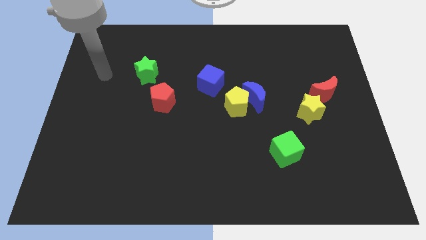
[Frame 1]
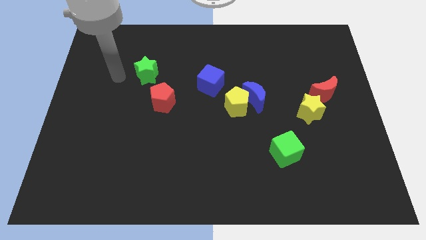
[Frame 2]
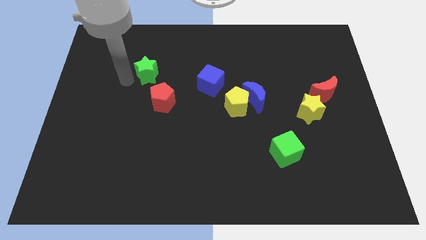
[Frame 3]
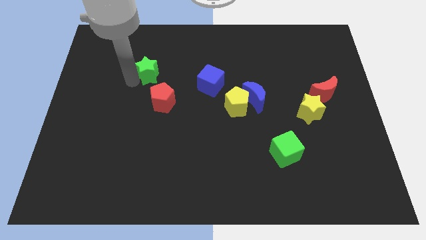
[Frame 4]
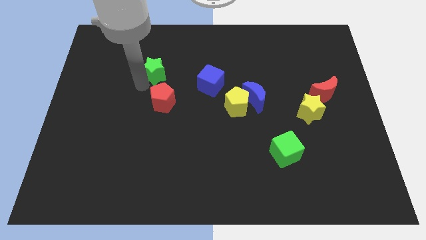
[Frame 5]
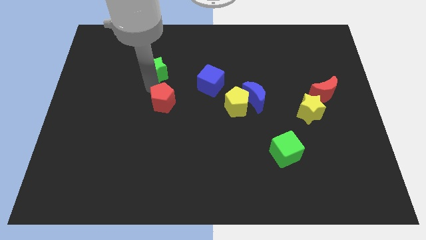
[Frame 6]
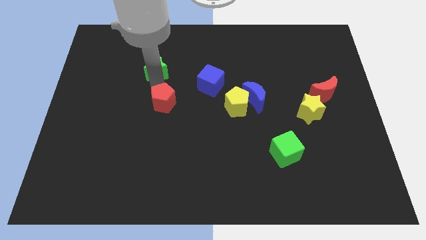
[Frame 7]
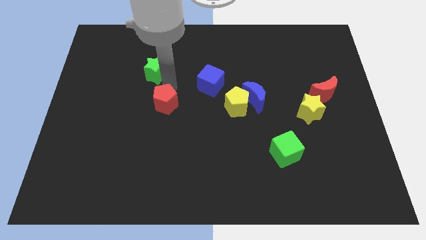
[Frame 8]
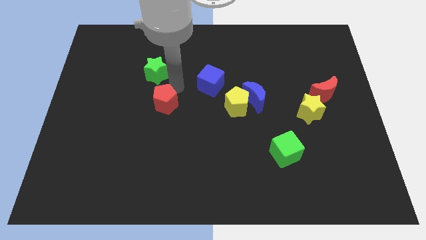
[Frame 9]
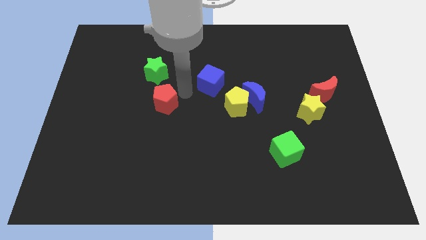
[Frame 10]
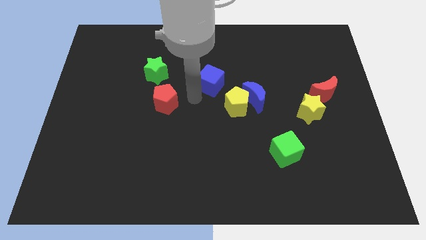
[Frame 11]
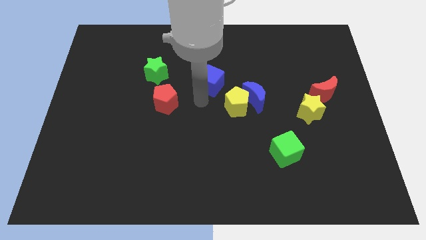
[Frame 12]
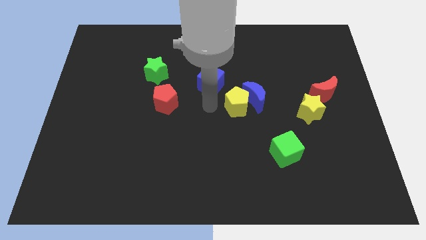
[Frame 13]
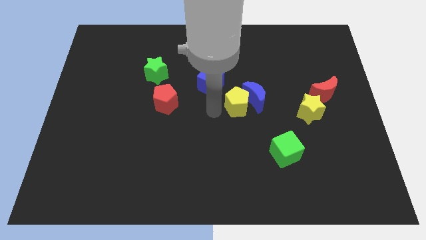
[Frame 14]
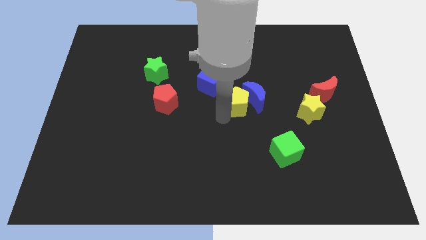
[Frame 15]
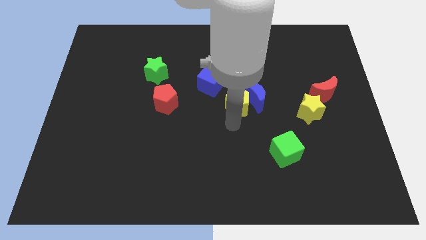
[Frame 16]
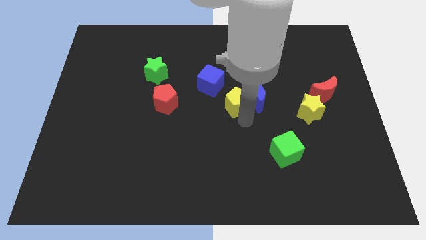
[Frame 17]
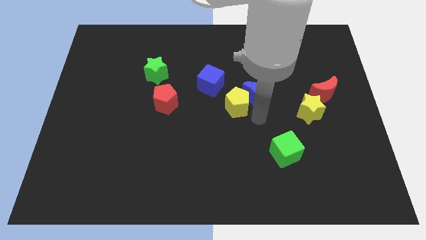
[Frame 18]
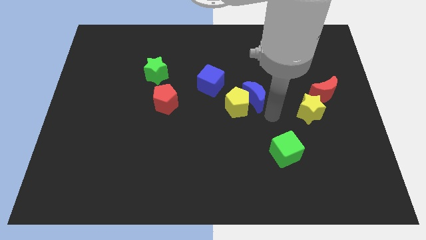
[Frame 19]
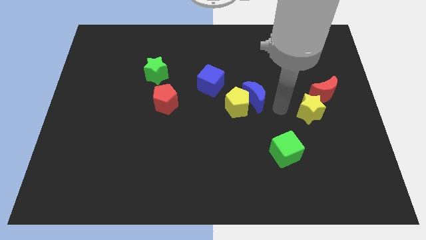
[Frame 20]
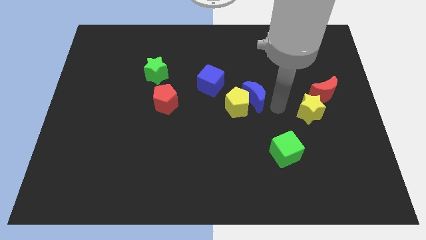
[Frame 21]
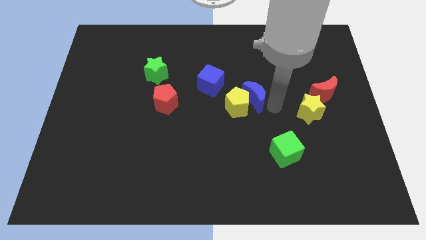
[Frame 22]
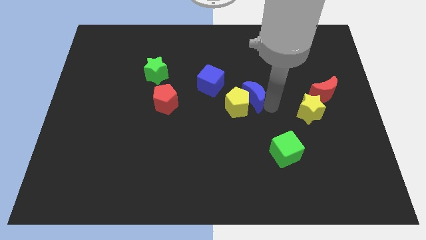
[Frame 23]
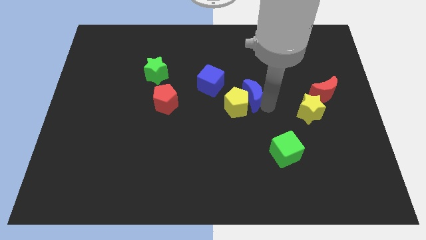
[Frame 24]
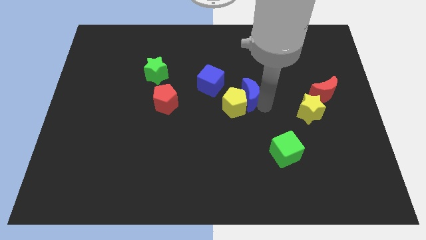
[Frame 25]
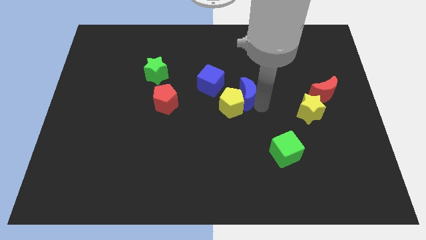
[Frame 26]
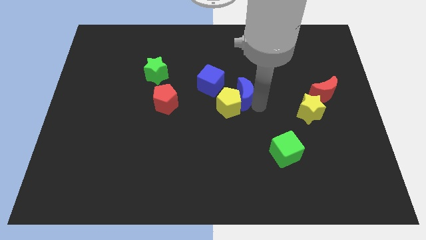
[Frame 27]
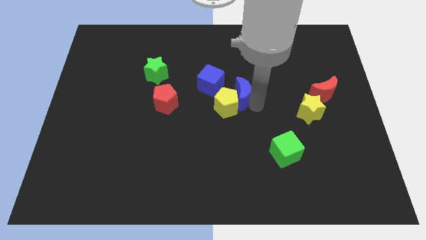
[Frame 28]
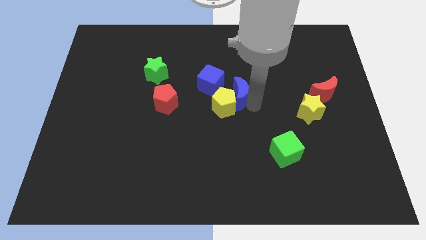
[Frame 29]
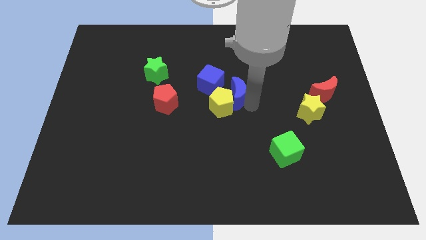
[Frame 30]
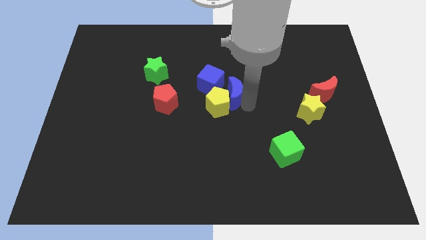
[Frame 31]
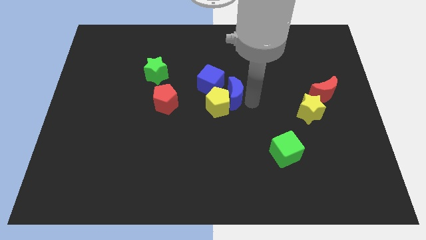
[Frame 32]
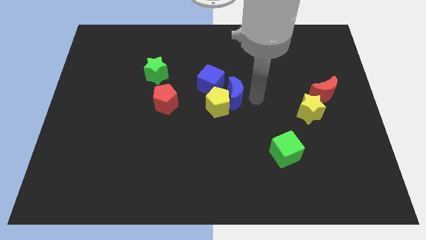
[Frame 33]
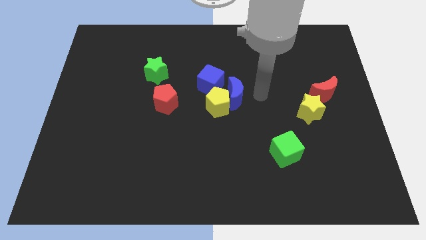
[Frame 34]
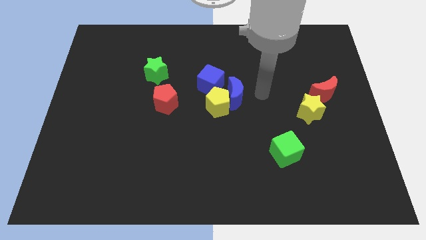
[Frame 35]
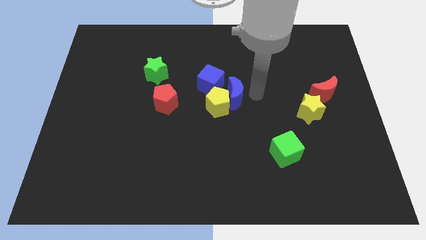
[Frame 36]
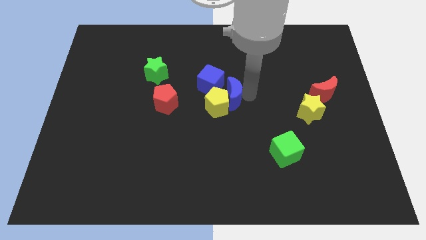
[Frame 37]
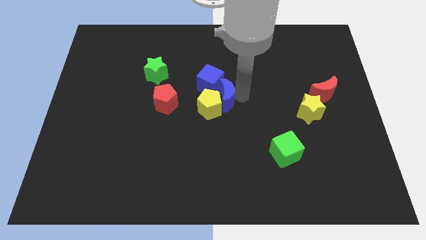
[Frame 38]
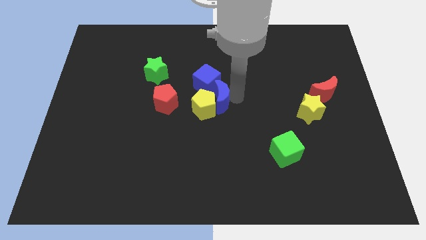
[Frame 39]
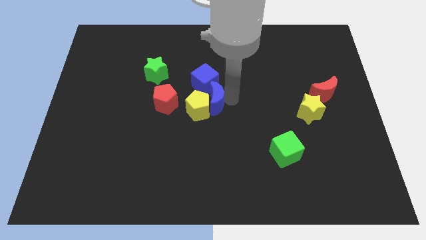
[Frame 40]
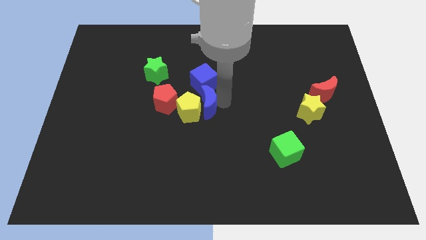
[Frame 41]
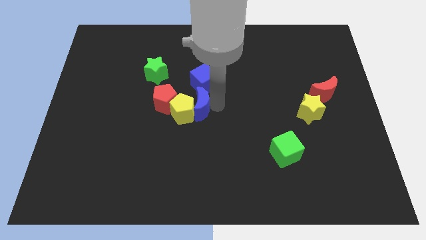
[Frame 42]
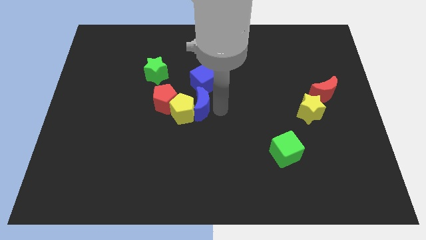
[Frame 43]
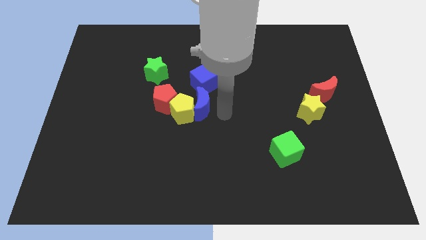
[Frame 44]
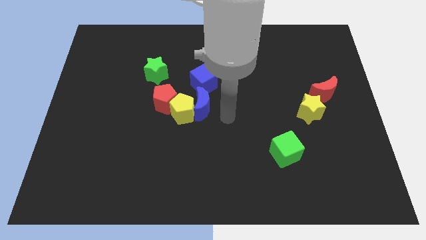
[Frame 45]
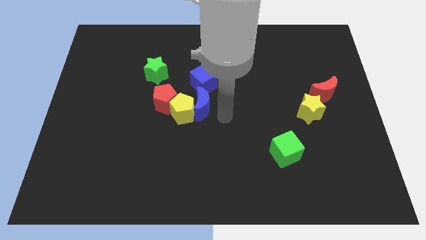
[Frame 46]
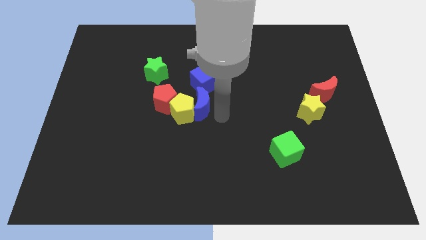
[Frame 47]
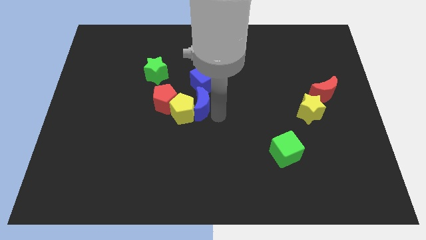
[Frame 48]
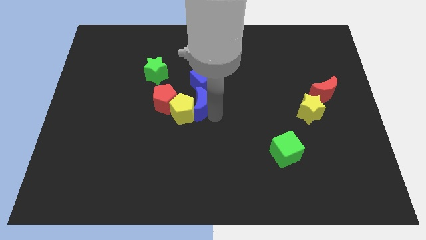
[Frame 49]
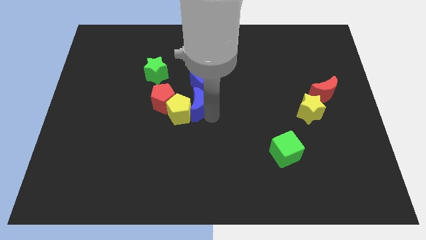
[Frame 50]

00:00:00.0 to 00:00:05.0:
move the blue moon to the bottom left of the blue cube

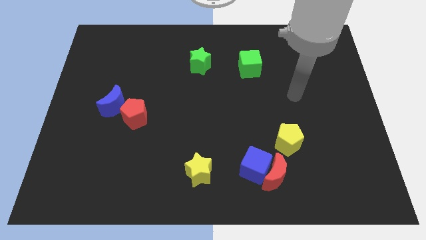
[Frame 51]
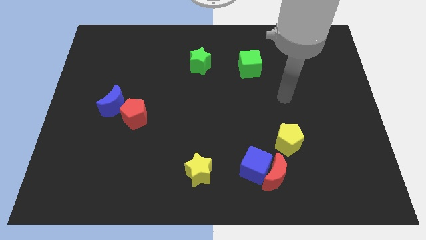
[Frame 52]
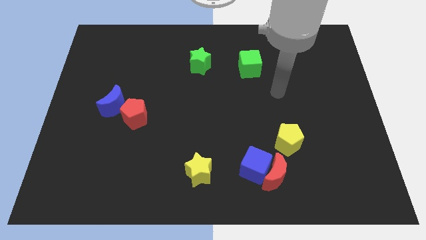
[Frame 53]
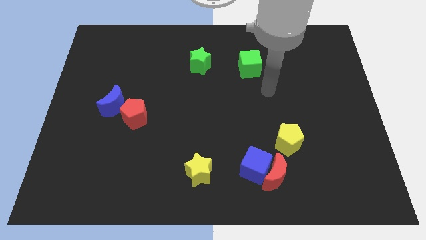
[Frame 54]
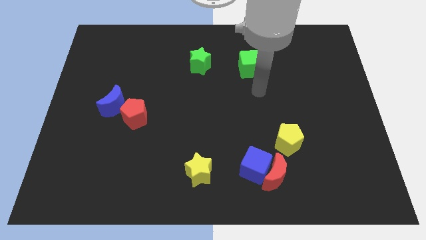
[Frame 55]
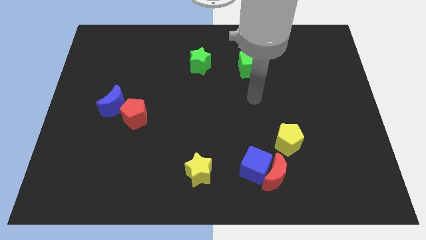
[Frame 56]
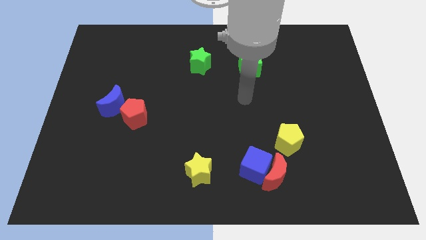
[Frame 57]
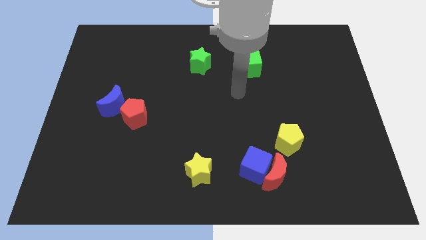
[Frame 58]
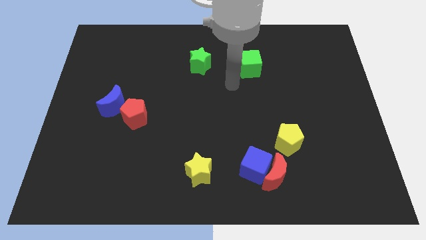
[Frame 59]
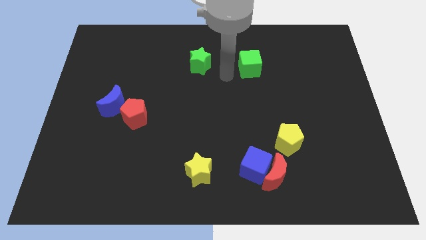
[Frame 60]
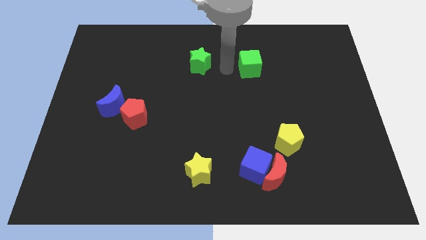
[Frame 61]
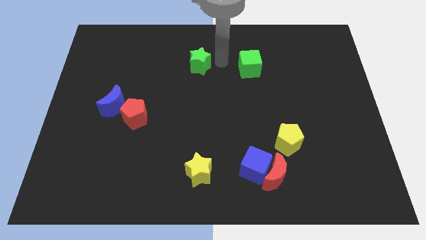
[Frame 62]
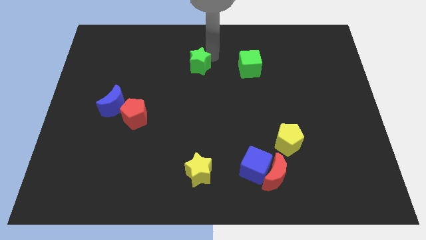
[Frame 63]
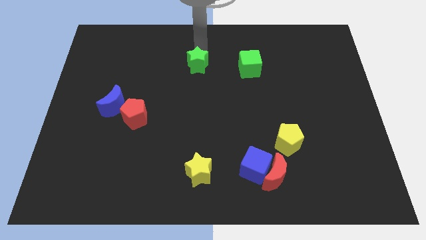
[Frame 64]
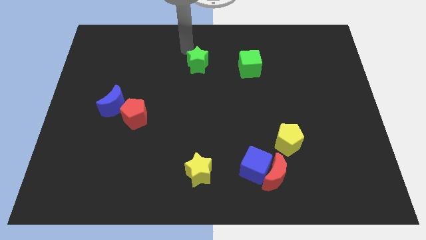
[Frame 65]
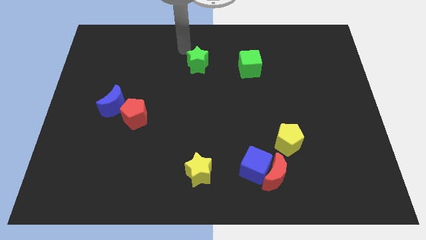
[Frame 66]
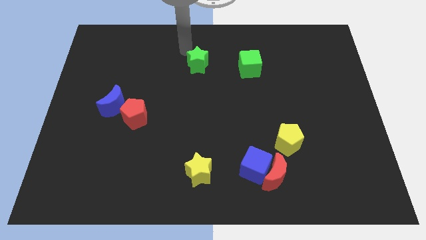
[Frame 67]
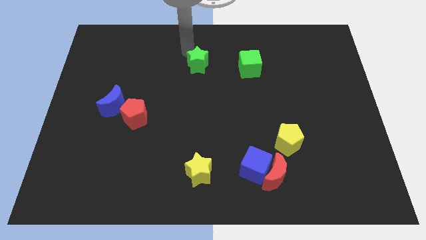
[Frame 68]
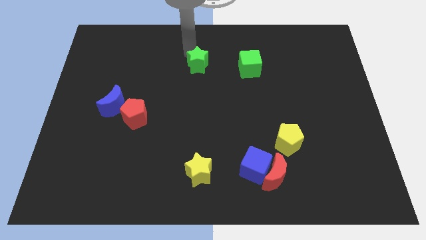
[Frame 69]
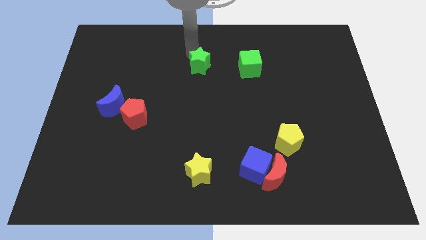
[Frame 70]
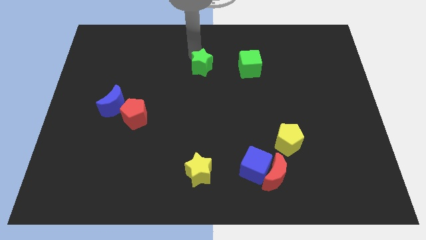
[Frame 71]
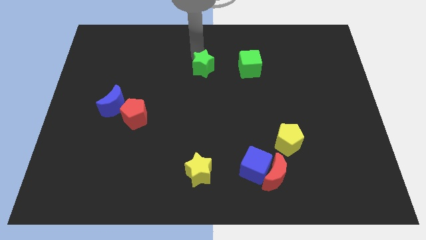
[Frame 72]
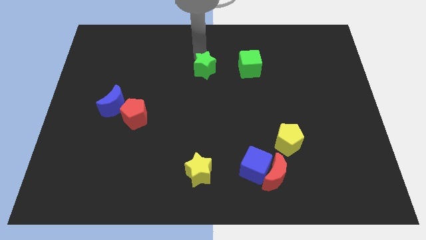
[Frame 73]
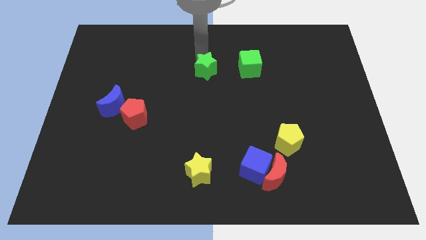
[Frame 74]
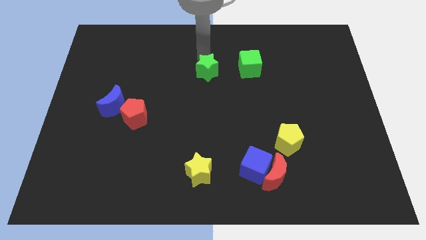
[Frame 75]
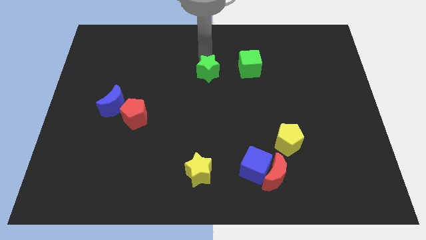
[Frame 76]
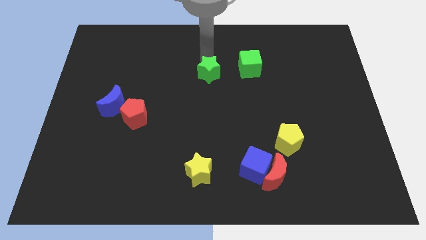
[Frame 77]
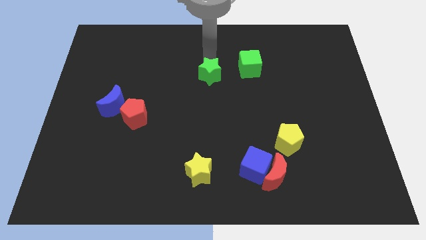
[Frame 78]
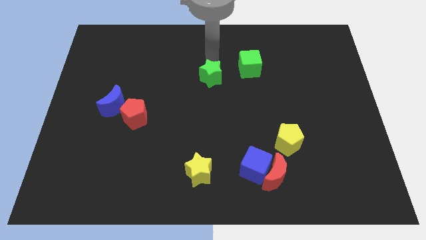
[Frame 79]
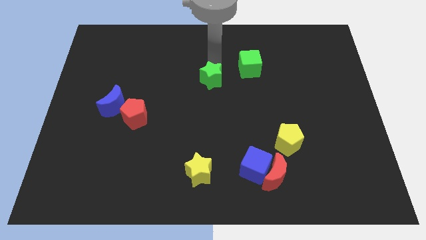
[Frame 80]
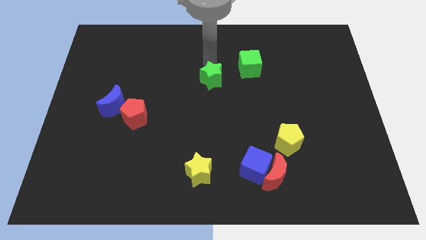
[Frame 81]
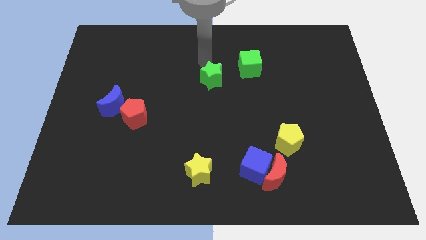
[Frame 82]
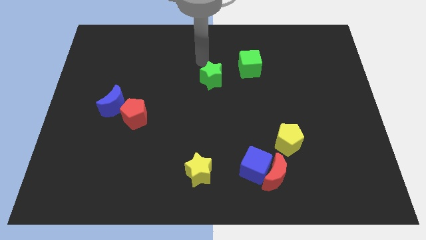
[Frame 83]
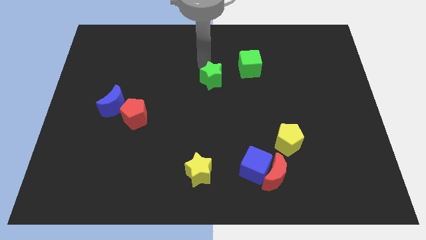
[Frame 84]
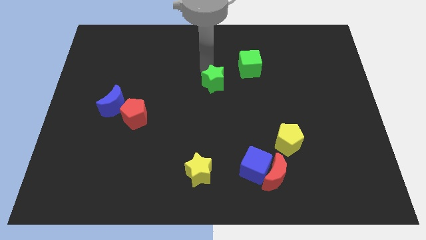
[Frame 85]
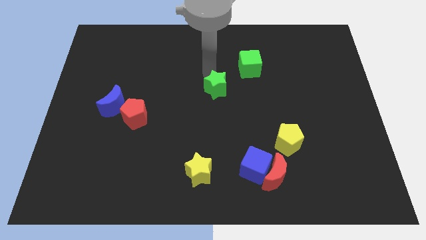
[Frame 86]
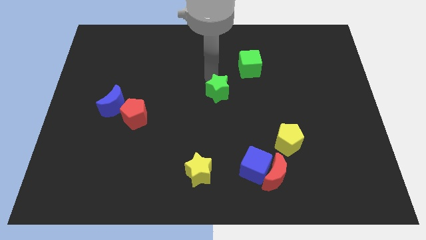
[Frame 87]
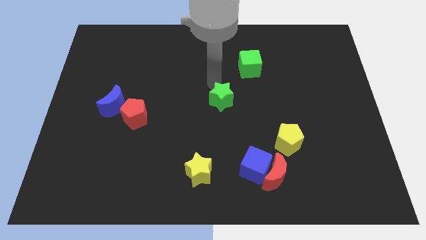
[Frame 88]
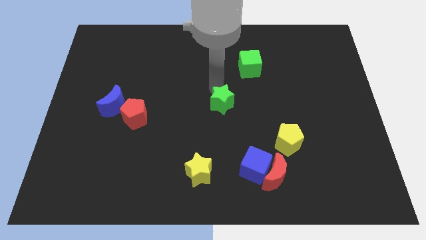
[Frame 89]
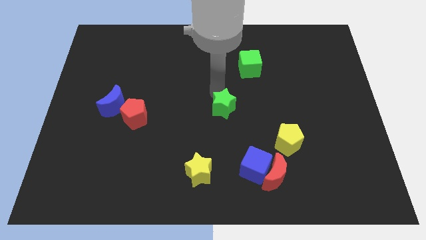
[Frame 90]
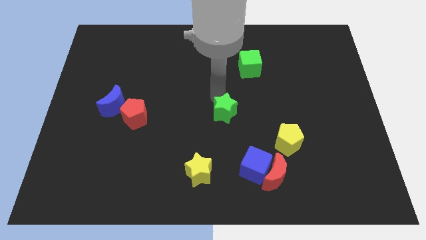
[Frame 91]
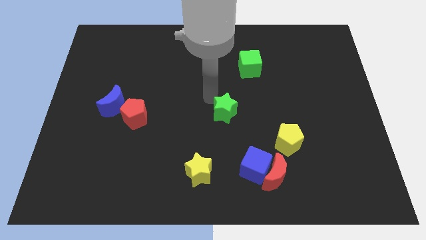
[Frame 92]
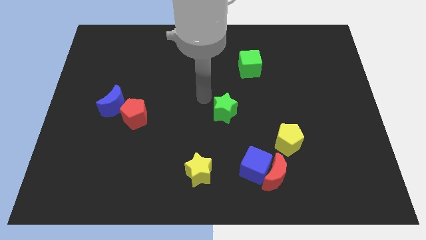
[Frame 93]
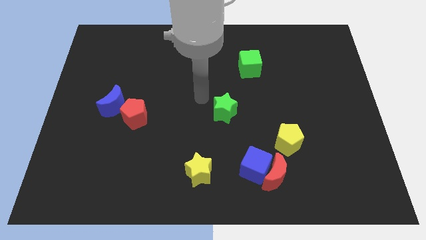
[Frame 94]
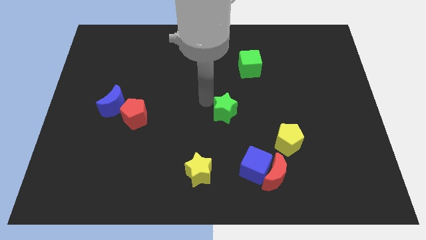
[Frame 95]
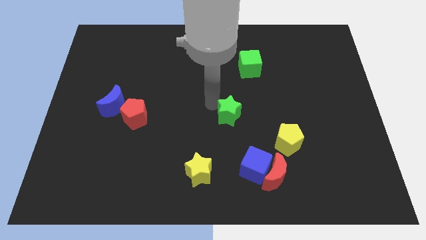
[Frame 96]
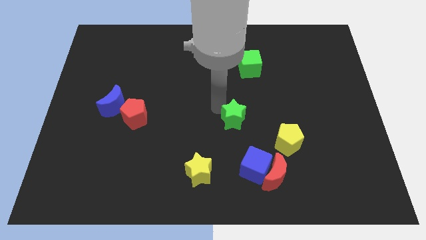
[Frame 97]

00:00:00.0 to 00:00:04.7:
push the green star above the blue cube
